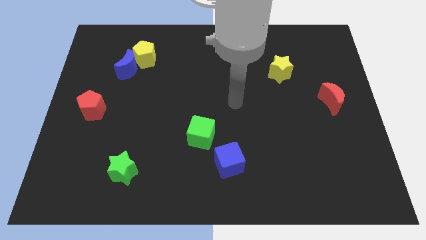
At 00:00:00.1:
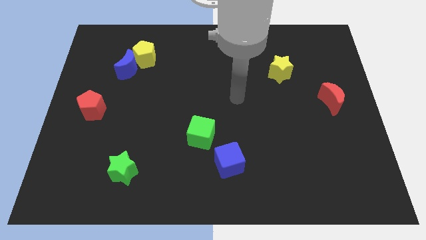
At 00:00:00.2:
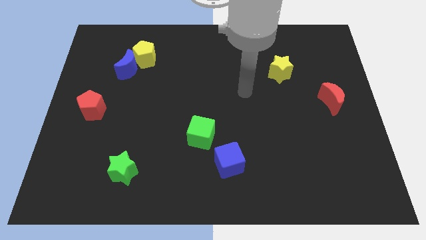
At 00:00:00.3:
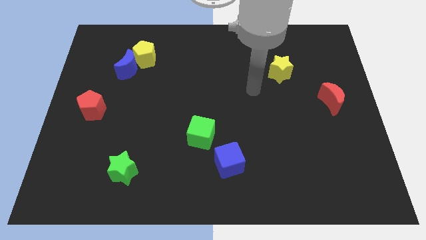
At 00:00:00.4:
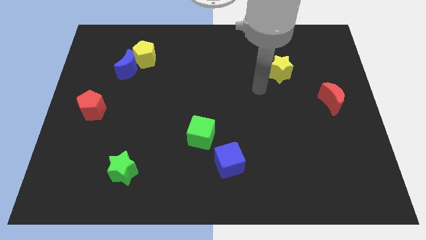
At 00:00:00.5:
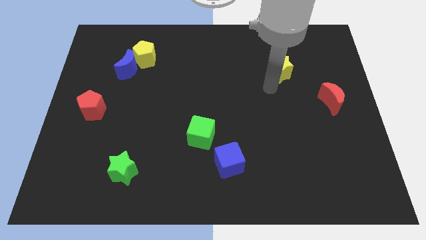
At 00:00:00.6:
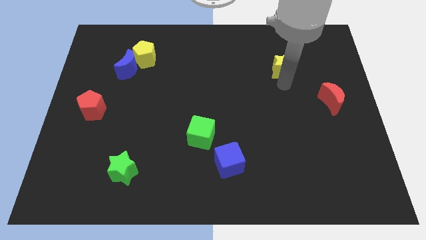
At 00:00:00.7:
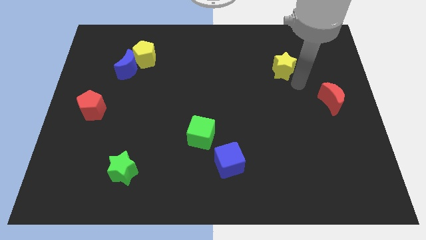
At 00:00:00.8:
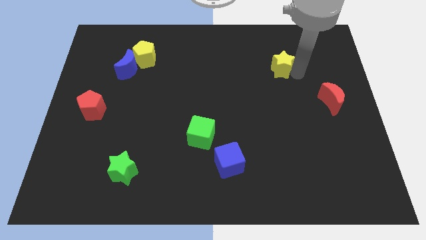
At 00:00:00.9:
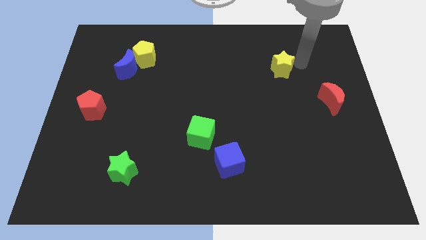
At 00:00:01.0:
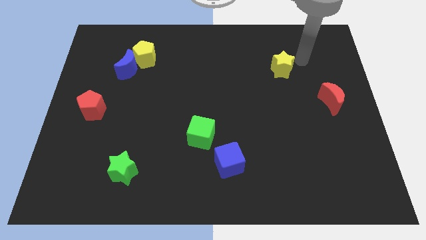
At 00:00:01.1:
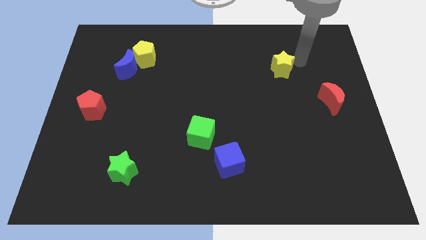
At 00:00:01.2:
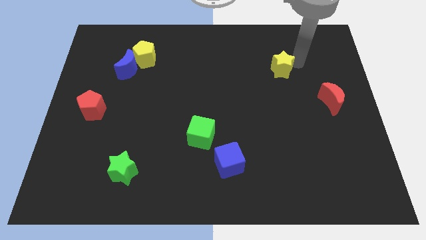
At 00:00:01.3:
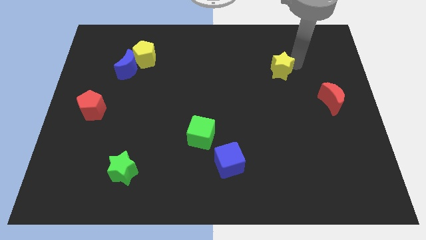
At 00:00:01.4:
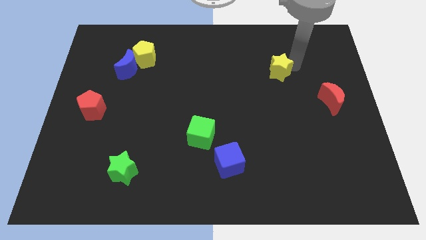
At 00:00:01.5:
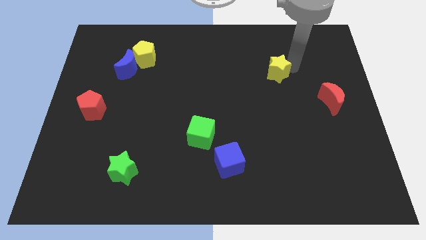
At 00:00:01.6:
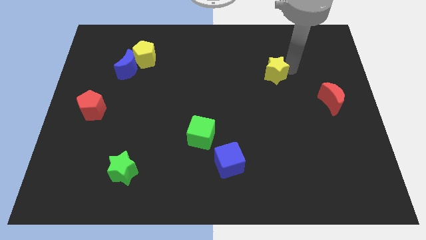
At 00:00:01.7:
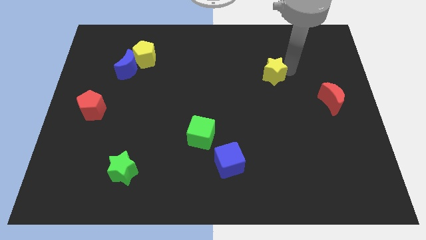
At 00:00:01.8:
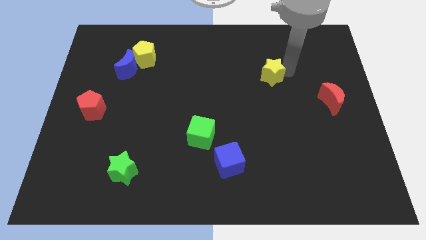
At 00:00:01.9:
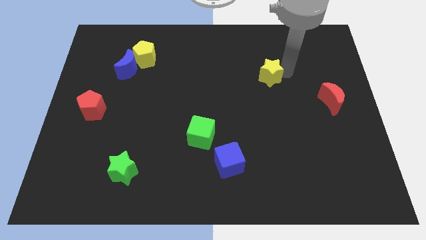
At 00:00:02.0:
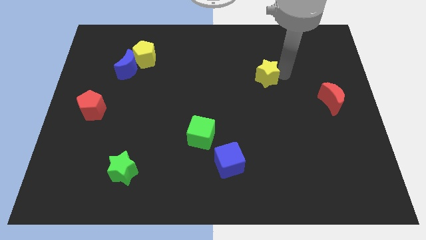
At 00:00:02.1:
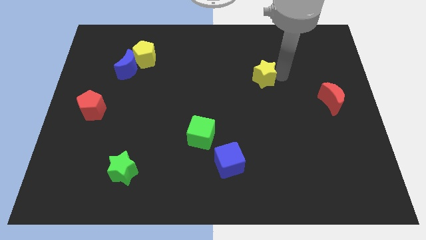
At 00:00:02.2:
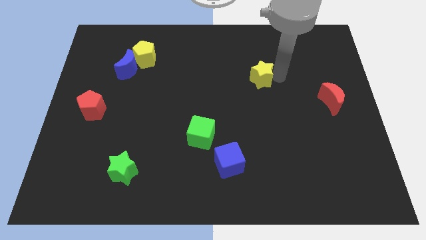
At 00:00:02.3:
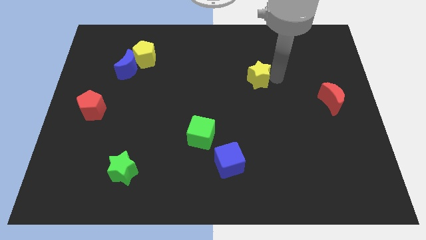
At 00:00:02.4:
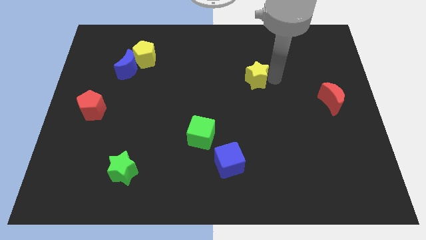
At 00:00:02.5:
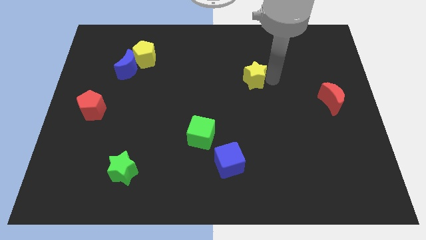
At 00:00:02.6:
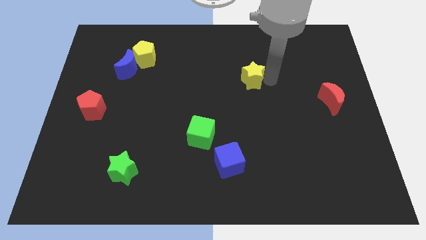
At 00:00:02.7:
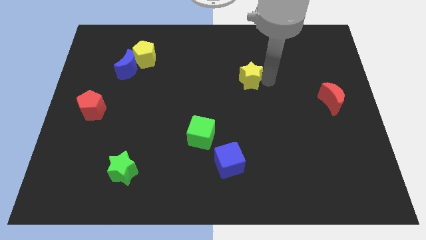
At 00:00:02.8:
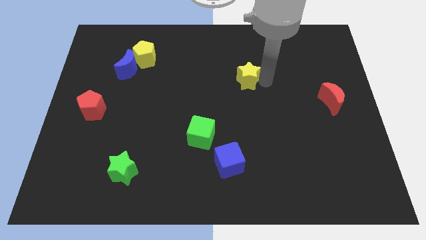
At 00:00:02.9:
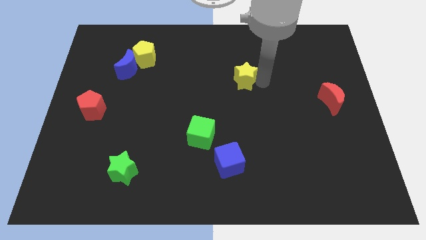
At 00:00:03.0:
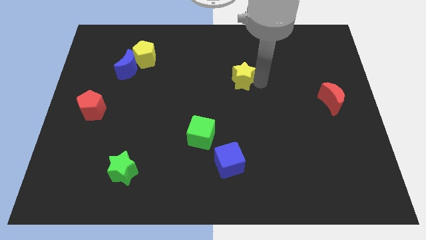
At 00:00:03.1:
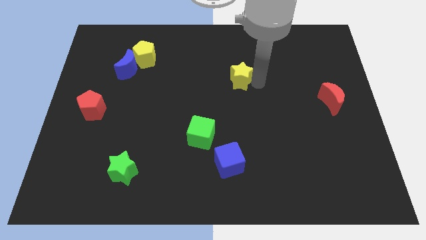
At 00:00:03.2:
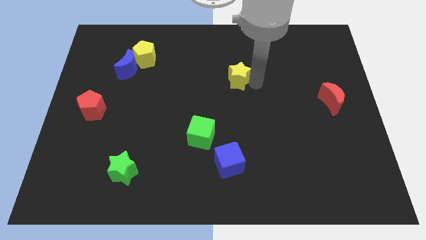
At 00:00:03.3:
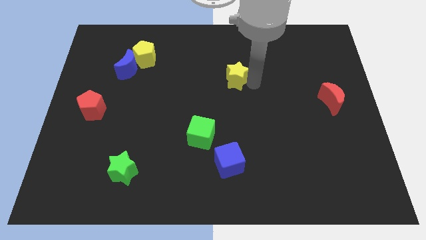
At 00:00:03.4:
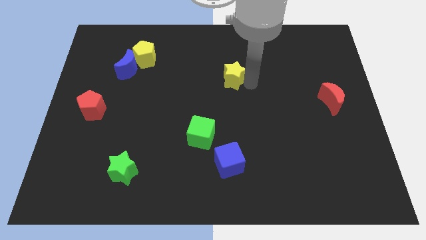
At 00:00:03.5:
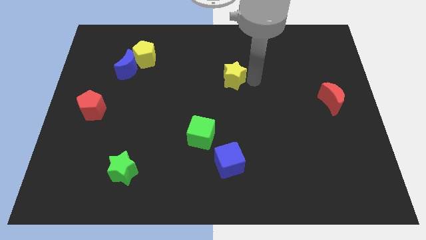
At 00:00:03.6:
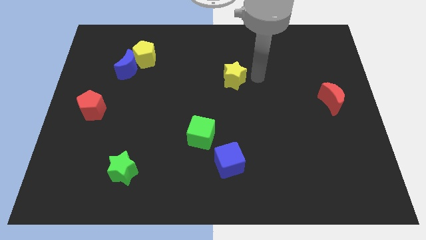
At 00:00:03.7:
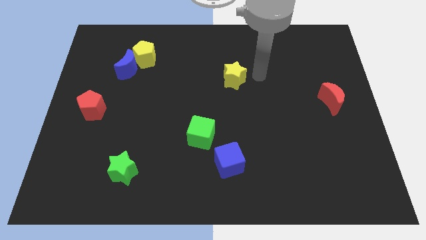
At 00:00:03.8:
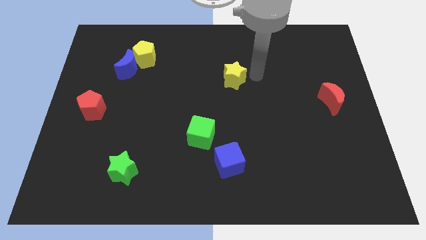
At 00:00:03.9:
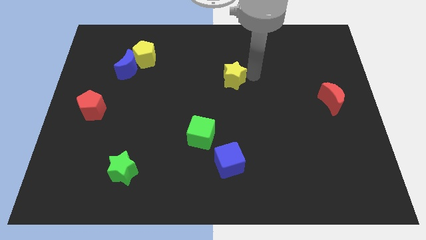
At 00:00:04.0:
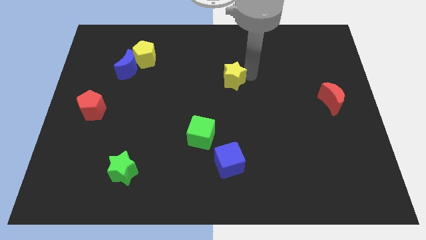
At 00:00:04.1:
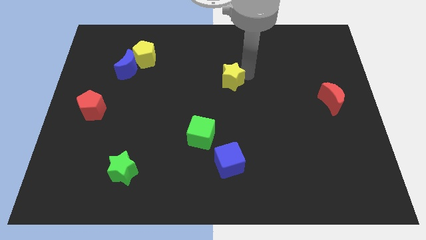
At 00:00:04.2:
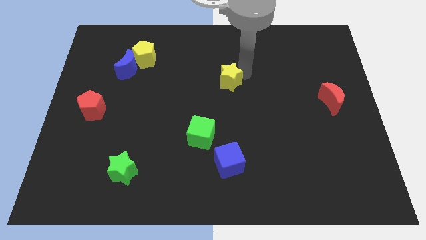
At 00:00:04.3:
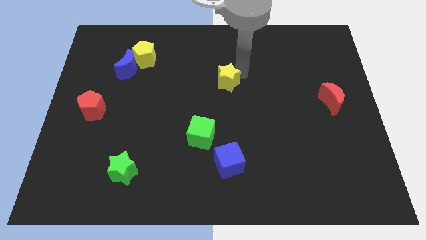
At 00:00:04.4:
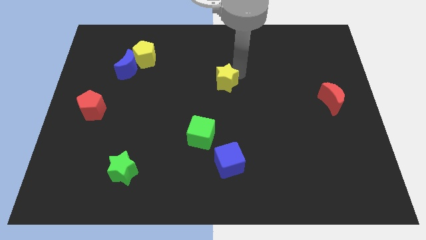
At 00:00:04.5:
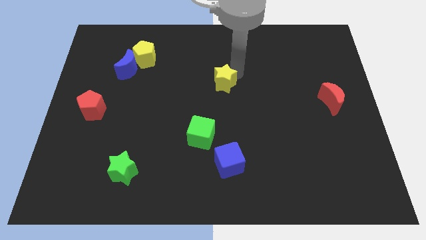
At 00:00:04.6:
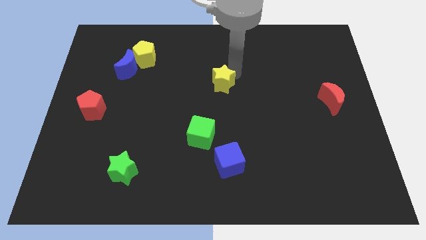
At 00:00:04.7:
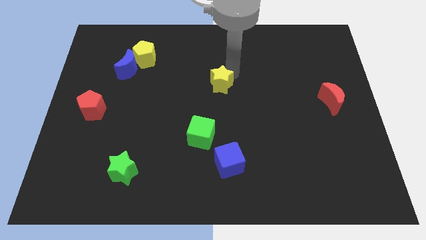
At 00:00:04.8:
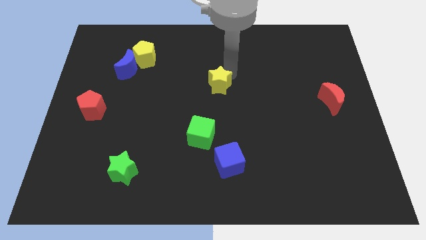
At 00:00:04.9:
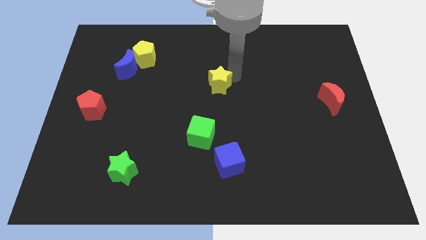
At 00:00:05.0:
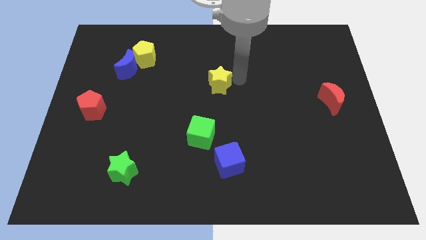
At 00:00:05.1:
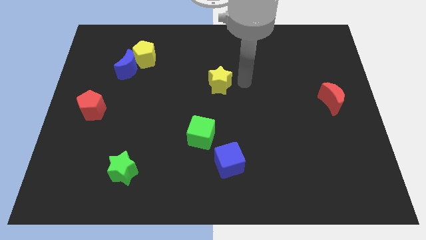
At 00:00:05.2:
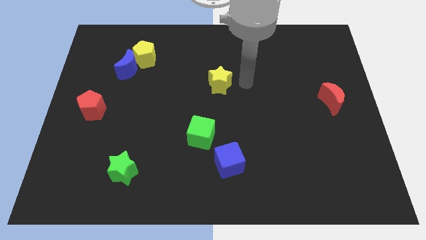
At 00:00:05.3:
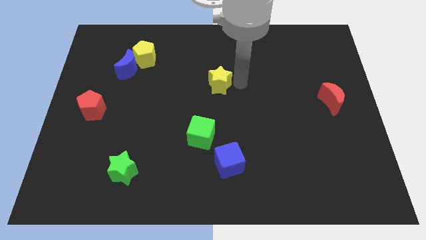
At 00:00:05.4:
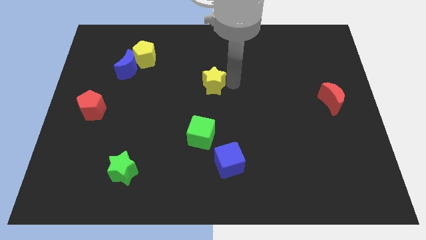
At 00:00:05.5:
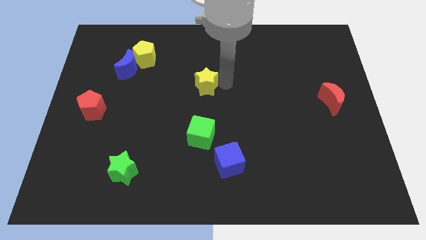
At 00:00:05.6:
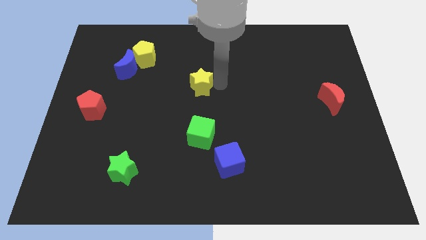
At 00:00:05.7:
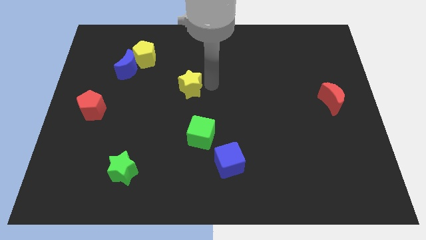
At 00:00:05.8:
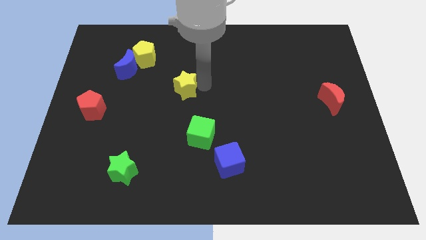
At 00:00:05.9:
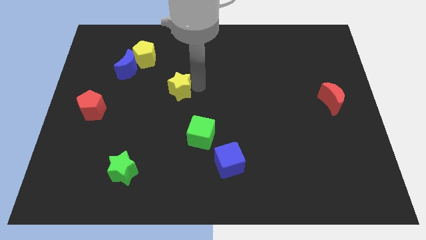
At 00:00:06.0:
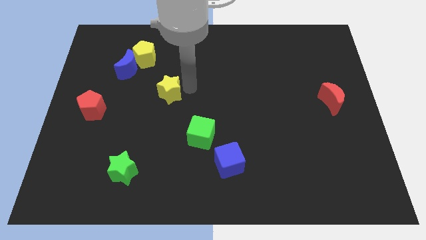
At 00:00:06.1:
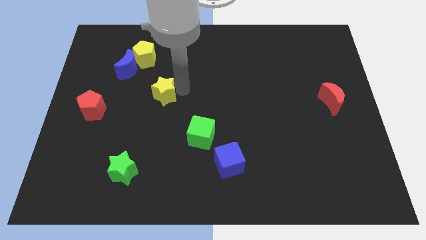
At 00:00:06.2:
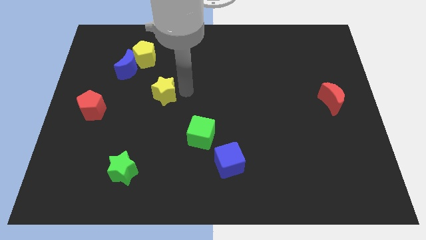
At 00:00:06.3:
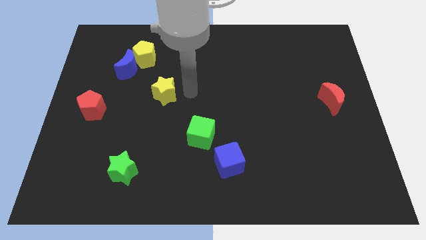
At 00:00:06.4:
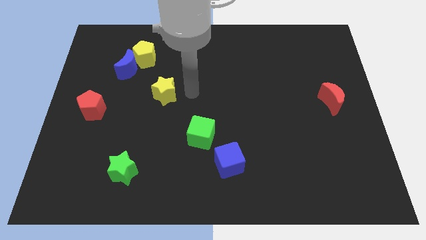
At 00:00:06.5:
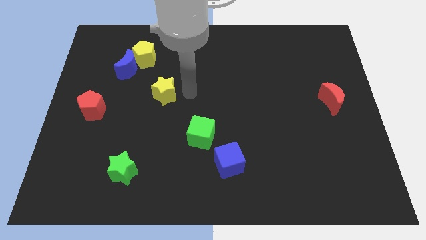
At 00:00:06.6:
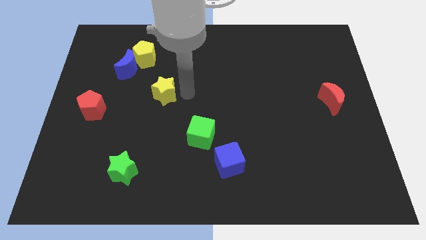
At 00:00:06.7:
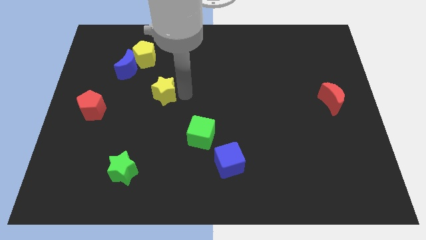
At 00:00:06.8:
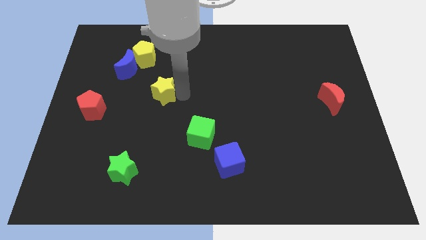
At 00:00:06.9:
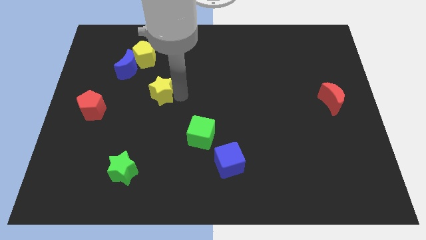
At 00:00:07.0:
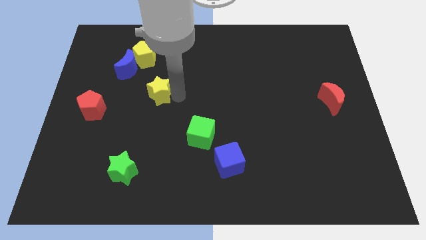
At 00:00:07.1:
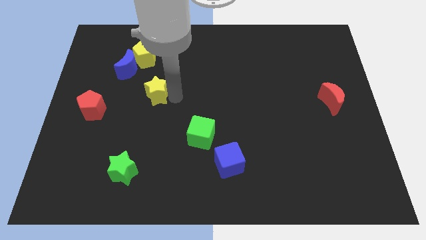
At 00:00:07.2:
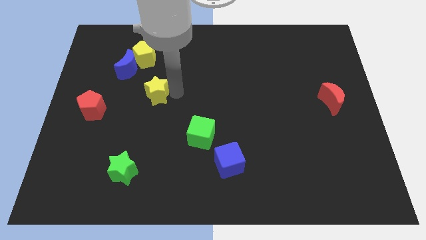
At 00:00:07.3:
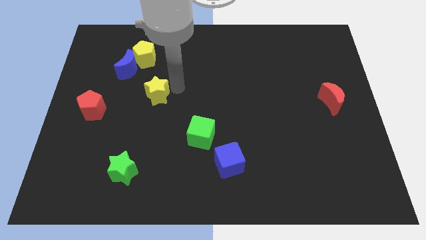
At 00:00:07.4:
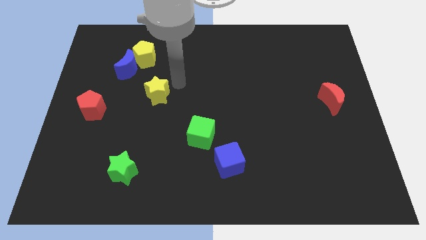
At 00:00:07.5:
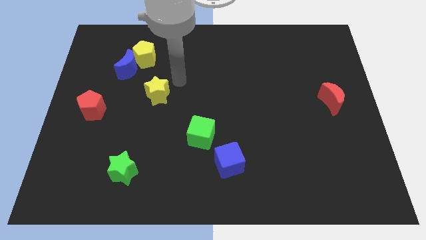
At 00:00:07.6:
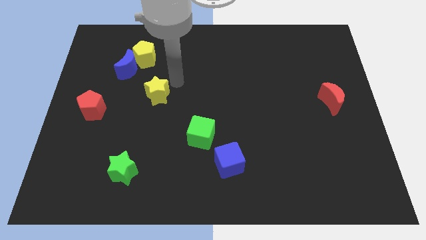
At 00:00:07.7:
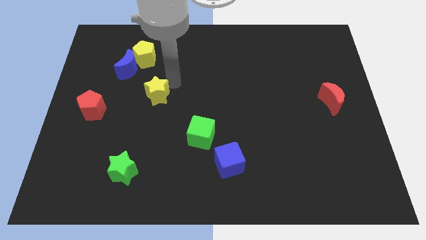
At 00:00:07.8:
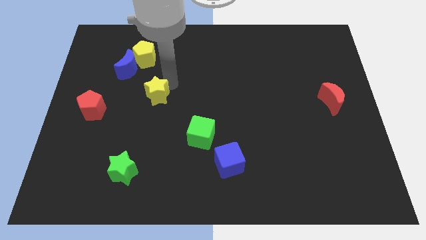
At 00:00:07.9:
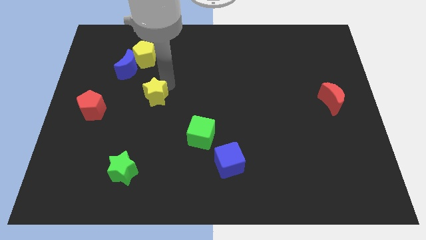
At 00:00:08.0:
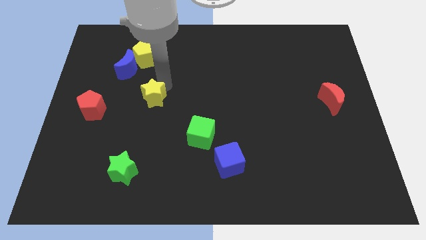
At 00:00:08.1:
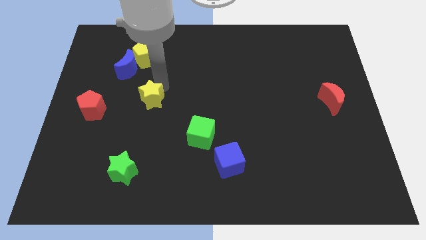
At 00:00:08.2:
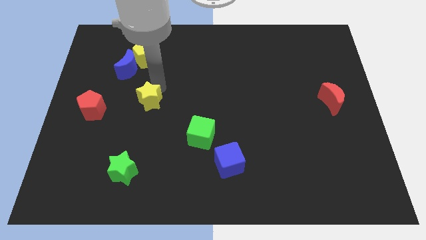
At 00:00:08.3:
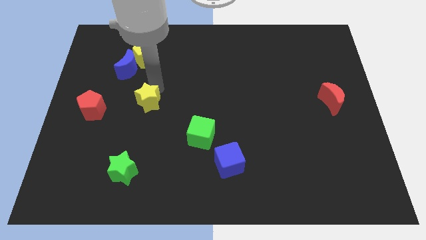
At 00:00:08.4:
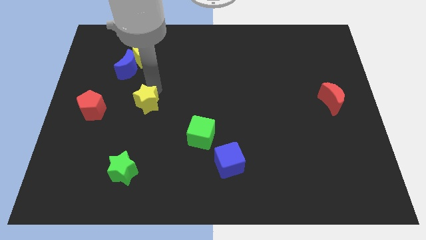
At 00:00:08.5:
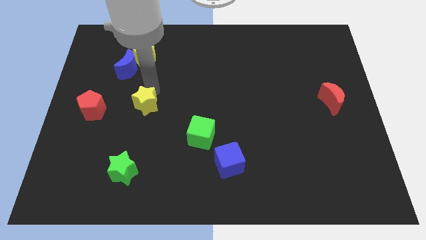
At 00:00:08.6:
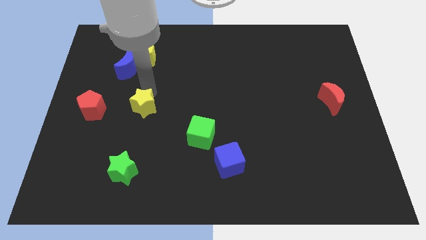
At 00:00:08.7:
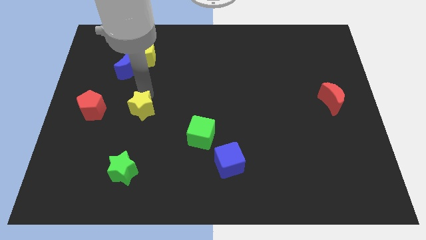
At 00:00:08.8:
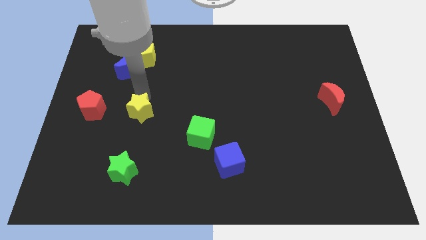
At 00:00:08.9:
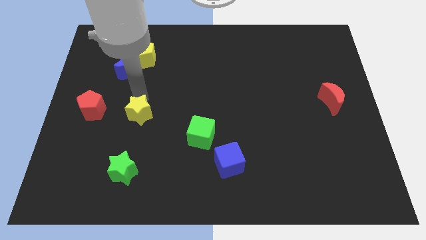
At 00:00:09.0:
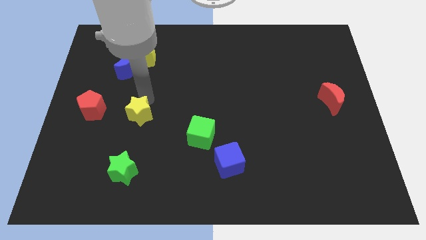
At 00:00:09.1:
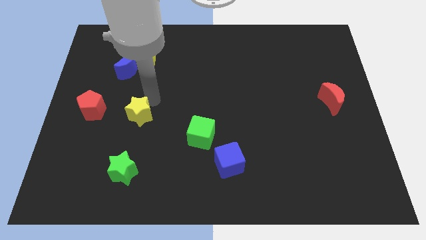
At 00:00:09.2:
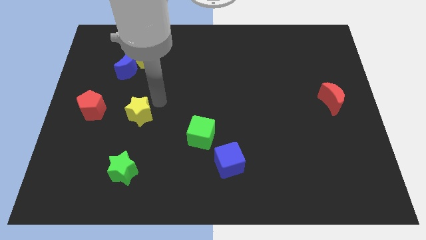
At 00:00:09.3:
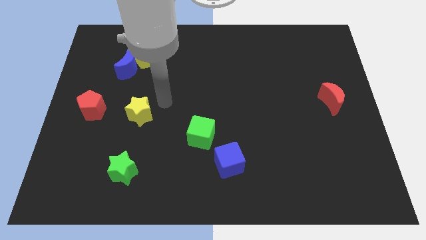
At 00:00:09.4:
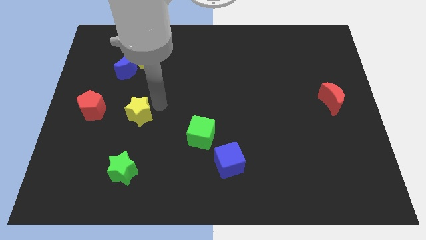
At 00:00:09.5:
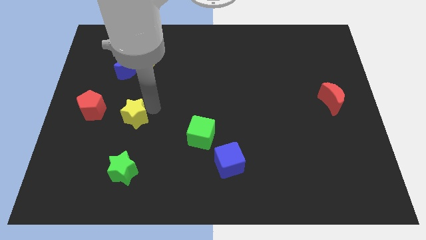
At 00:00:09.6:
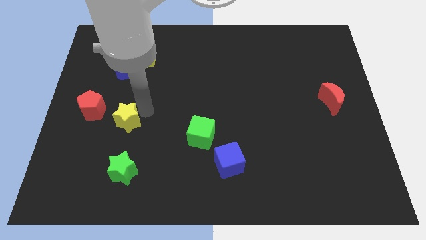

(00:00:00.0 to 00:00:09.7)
slide the yellow star to the bottom right of the red pentagon
